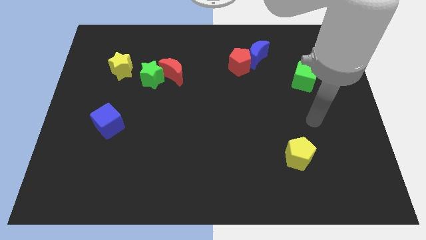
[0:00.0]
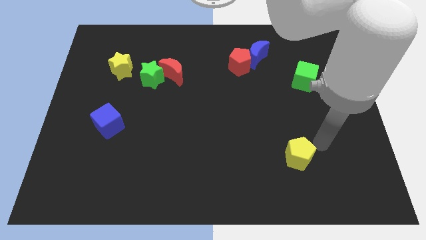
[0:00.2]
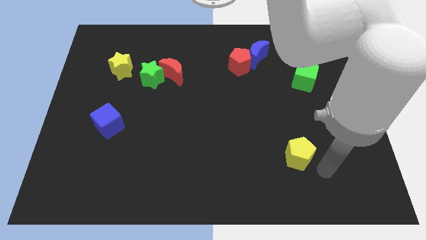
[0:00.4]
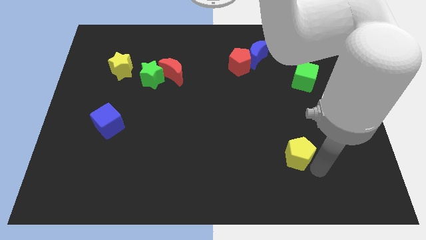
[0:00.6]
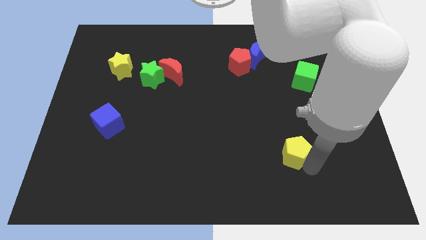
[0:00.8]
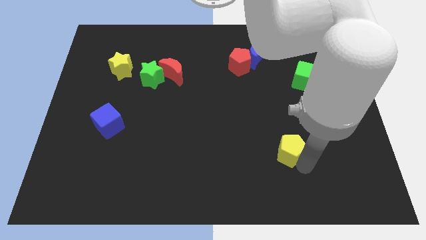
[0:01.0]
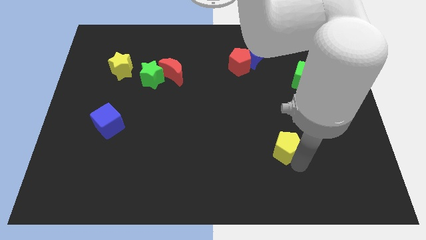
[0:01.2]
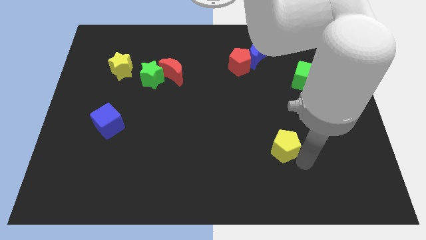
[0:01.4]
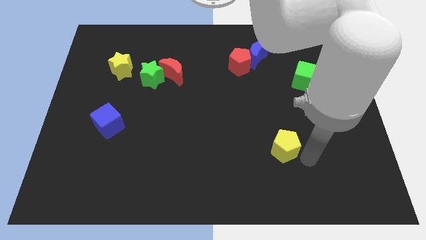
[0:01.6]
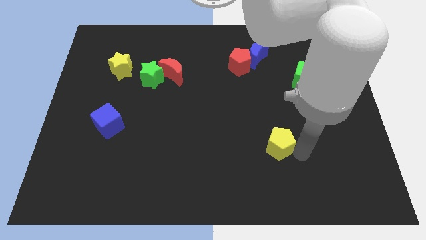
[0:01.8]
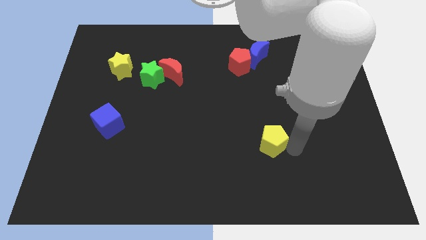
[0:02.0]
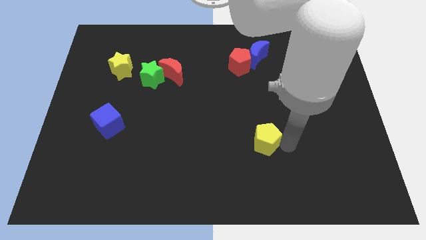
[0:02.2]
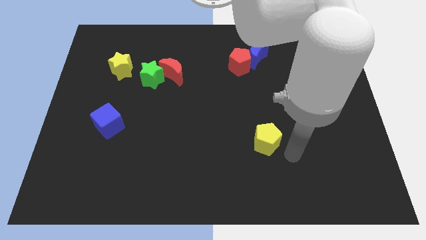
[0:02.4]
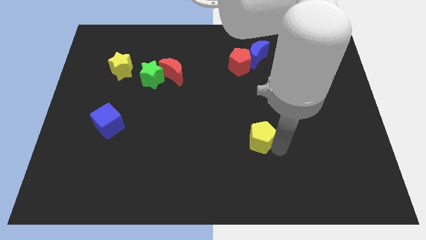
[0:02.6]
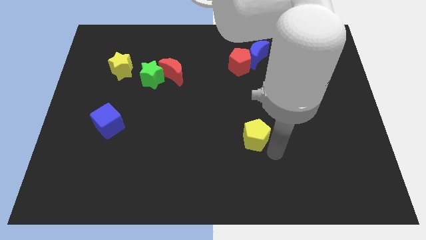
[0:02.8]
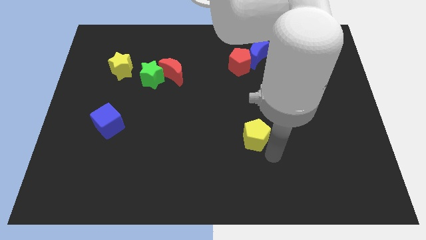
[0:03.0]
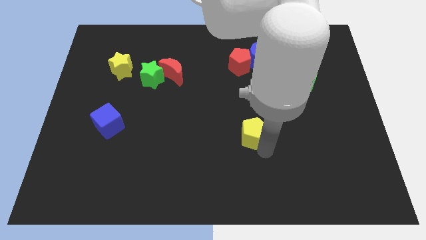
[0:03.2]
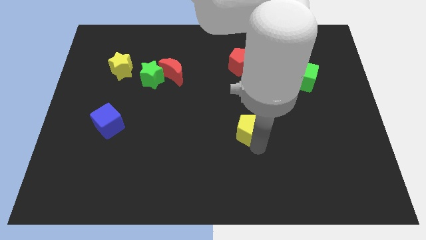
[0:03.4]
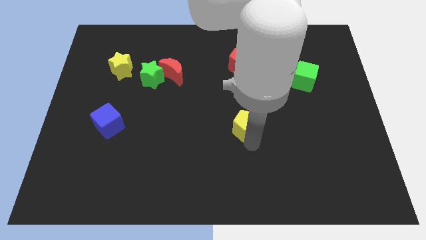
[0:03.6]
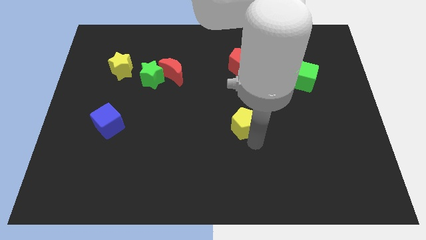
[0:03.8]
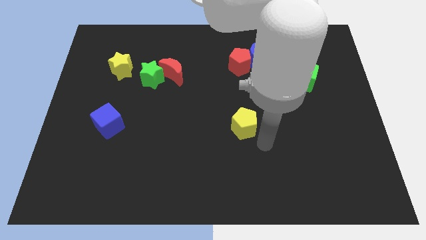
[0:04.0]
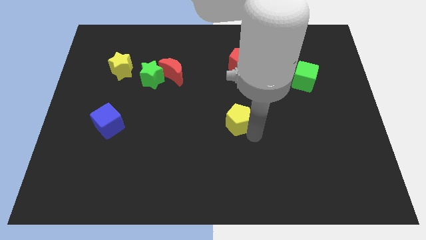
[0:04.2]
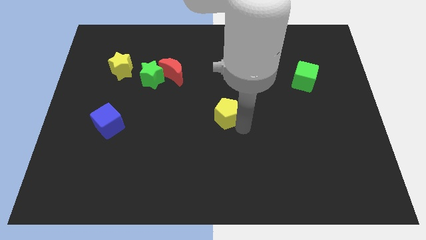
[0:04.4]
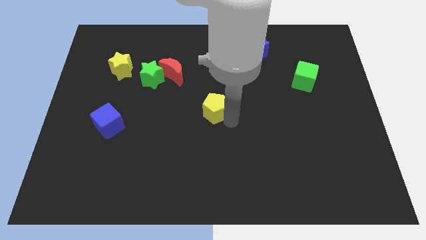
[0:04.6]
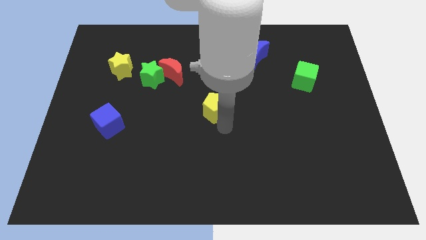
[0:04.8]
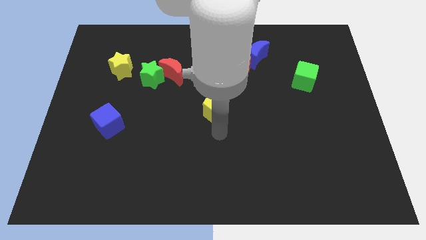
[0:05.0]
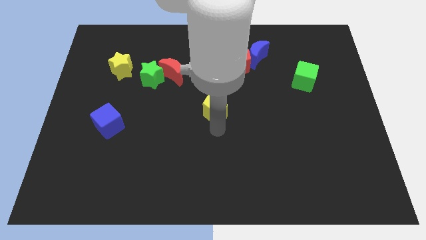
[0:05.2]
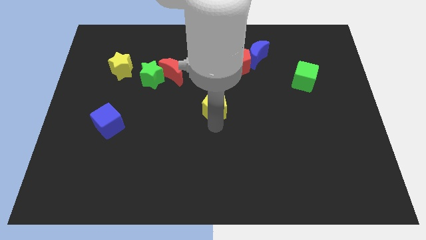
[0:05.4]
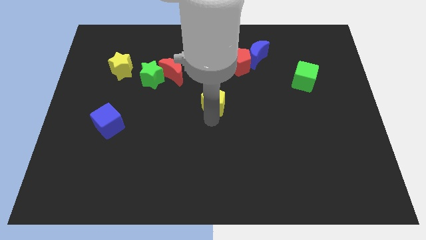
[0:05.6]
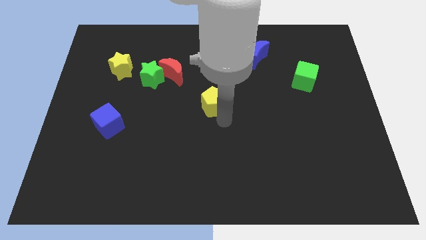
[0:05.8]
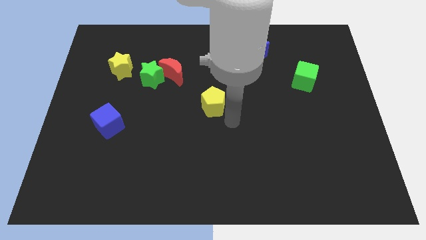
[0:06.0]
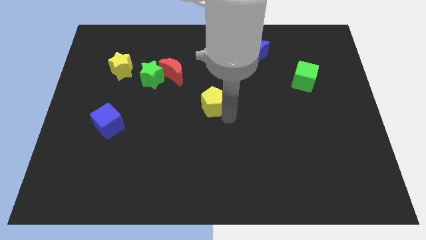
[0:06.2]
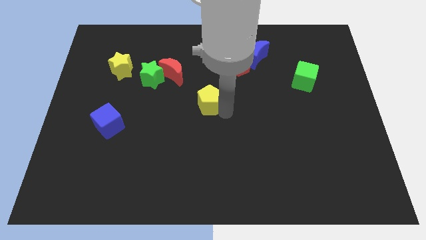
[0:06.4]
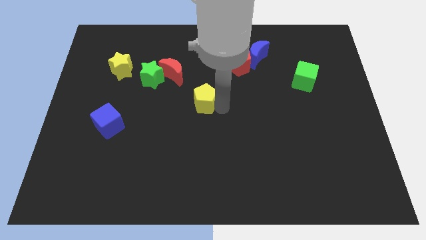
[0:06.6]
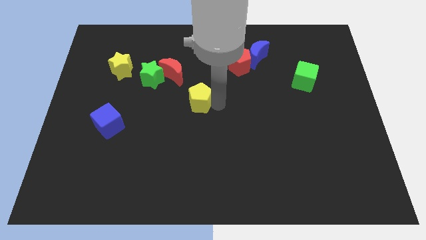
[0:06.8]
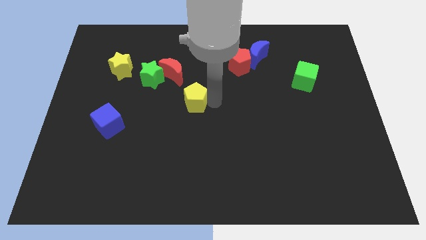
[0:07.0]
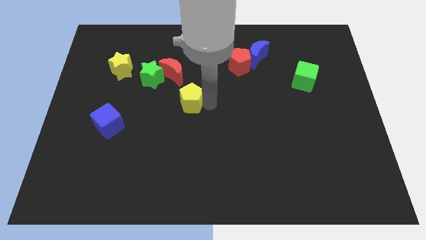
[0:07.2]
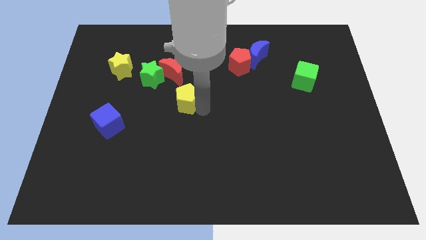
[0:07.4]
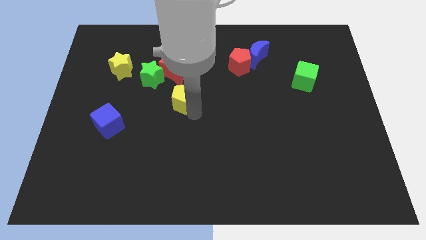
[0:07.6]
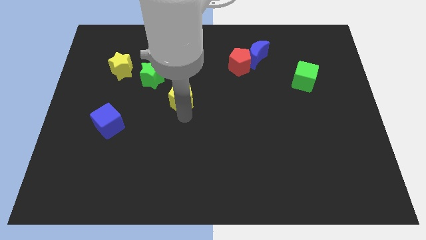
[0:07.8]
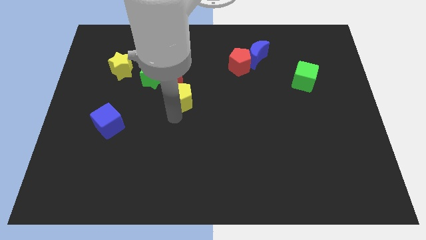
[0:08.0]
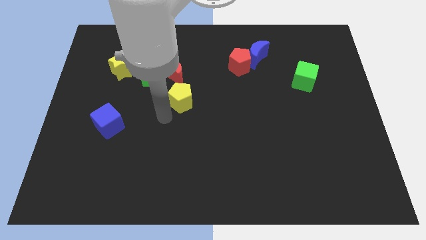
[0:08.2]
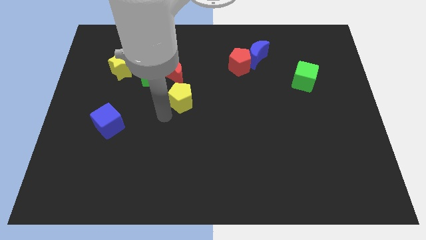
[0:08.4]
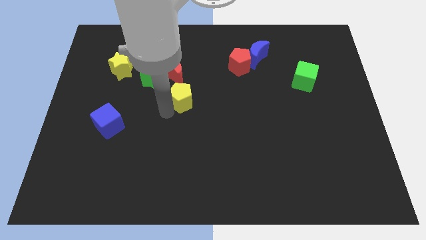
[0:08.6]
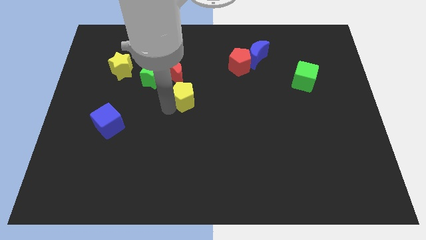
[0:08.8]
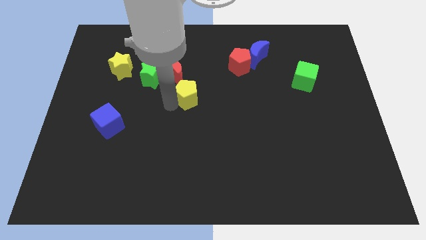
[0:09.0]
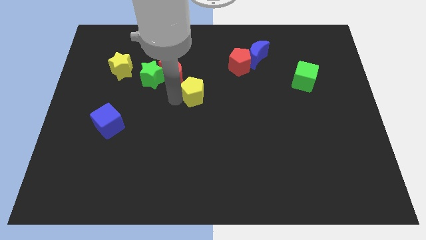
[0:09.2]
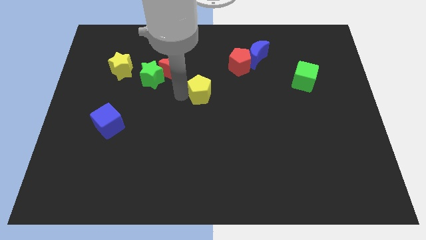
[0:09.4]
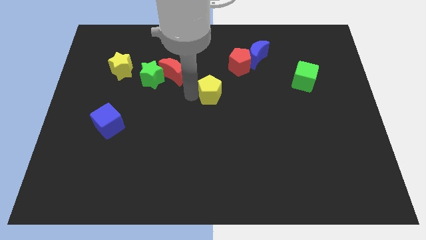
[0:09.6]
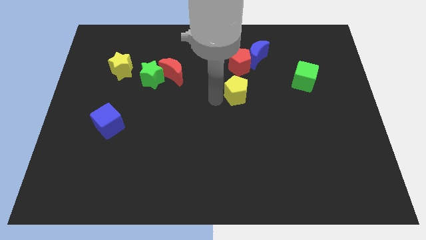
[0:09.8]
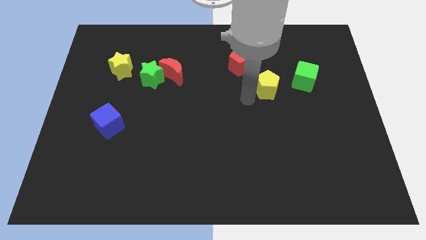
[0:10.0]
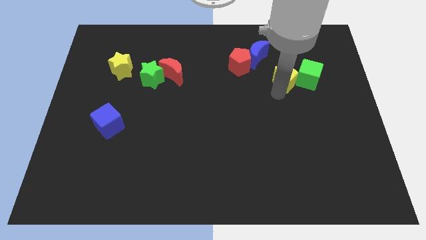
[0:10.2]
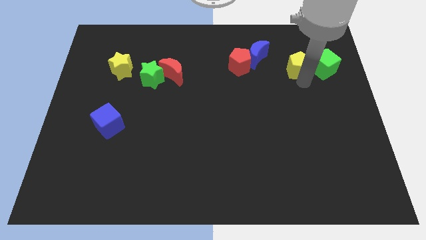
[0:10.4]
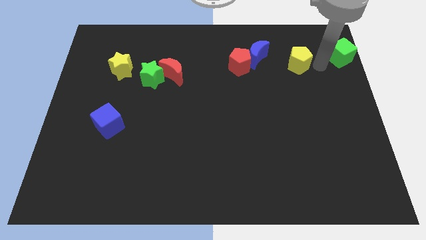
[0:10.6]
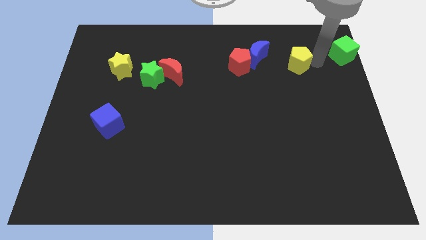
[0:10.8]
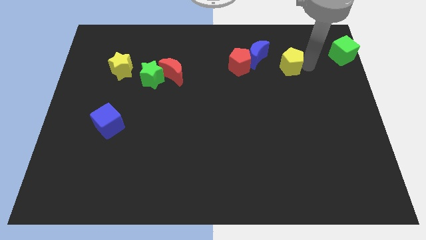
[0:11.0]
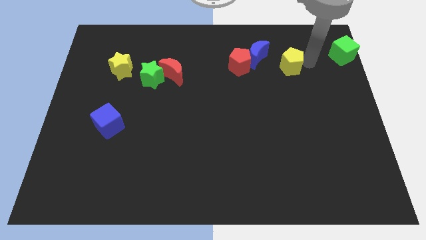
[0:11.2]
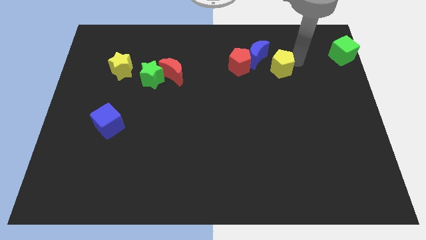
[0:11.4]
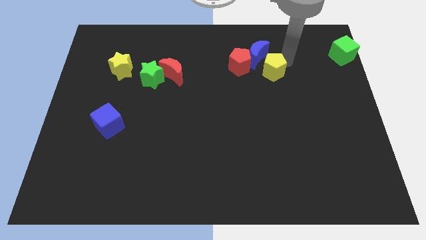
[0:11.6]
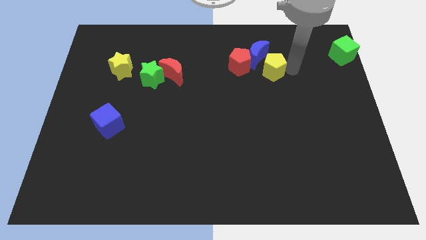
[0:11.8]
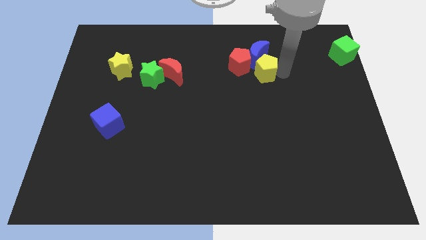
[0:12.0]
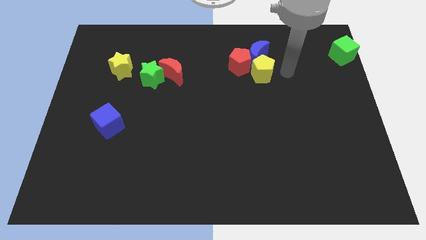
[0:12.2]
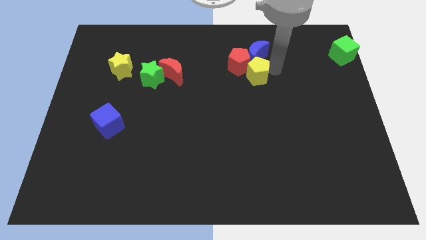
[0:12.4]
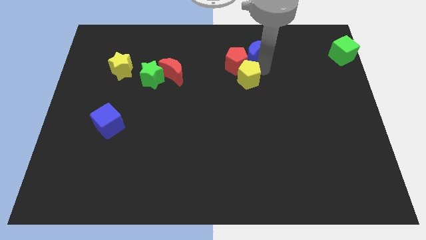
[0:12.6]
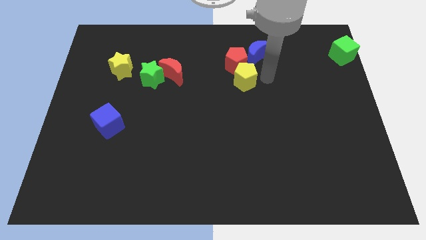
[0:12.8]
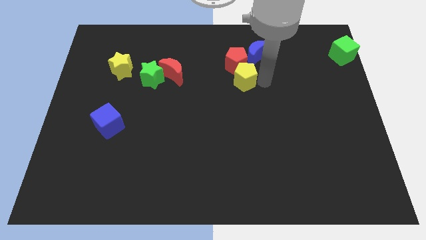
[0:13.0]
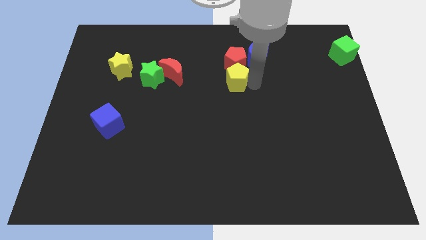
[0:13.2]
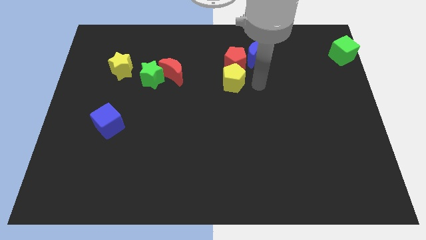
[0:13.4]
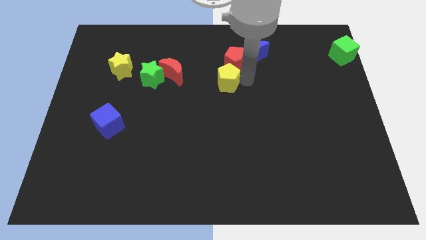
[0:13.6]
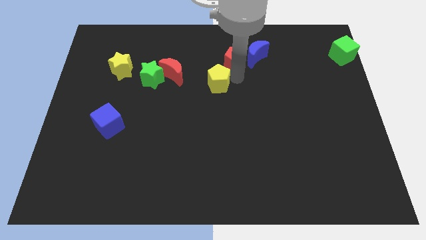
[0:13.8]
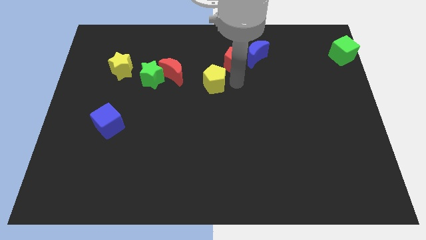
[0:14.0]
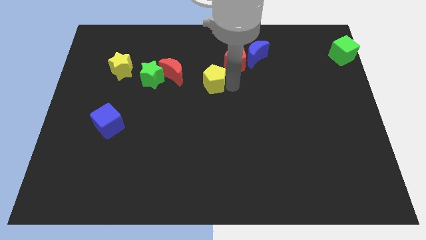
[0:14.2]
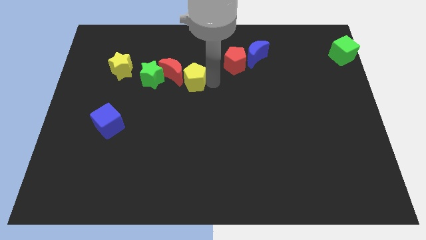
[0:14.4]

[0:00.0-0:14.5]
put the yellow pentagon towards the red moon
